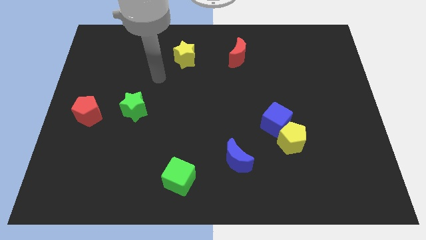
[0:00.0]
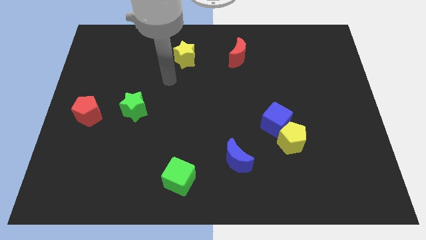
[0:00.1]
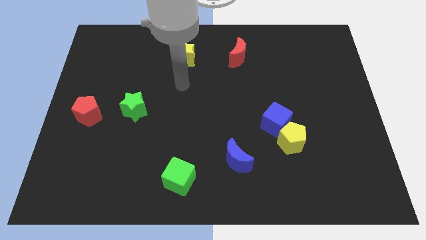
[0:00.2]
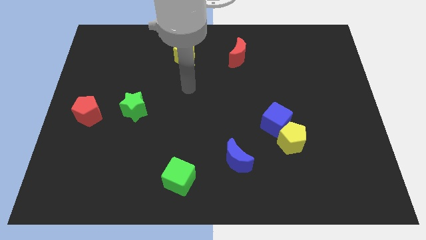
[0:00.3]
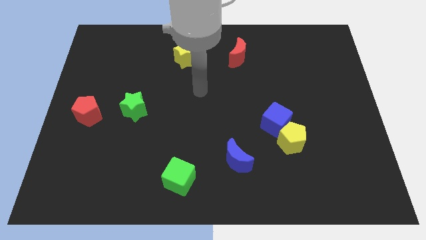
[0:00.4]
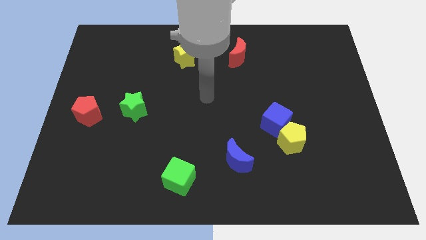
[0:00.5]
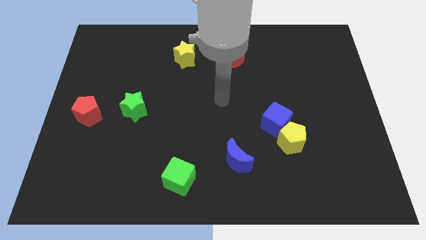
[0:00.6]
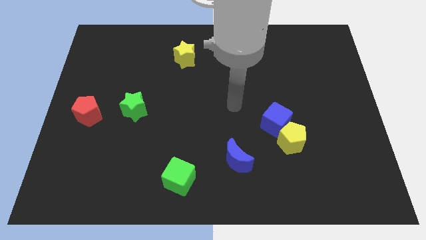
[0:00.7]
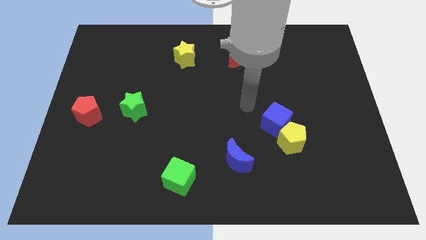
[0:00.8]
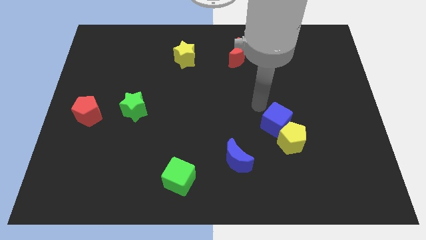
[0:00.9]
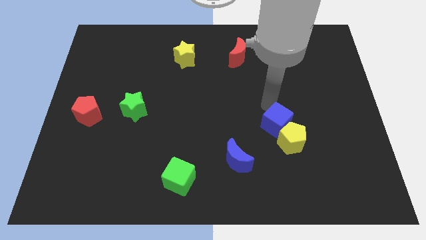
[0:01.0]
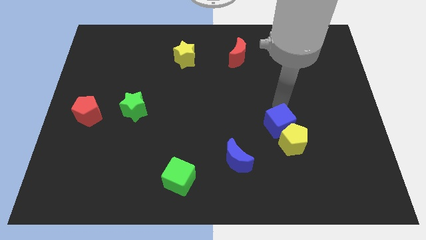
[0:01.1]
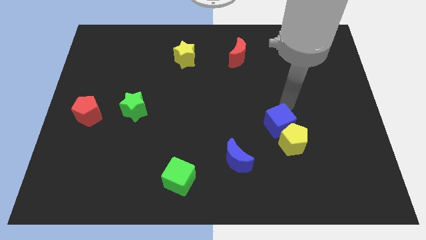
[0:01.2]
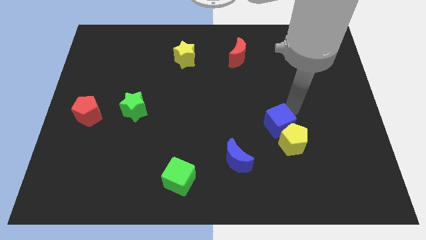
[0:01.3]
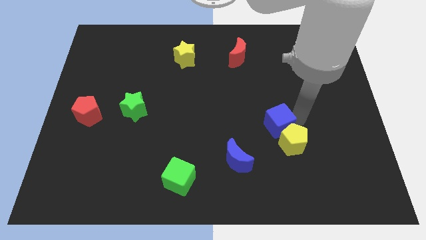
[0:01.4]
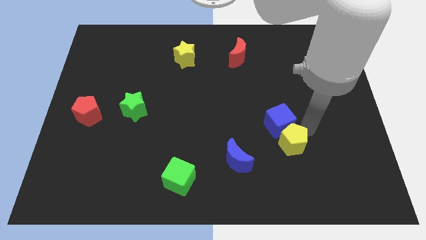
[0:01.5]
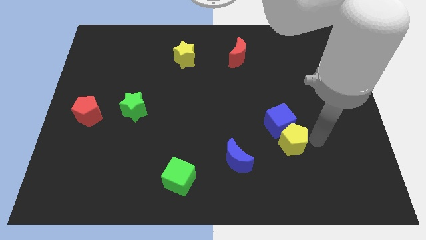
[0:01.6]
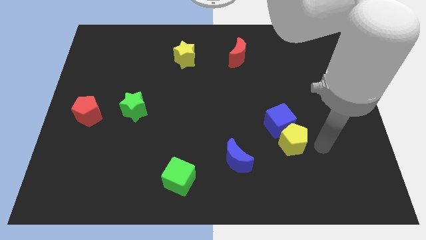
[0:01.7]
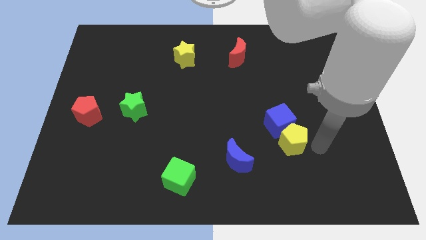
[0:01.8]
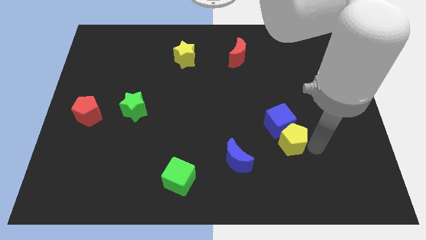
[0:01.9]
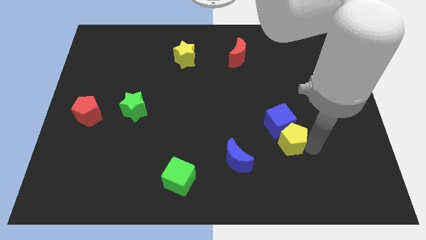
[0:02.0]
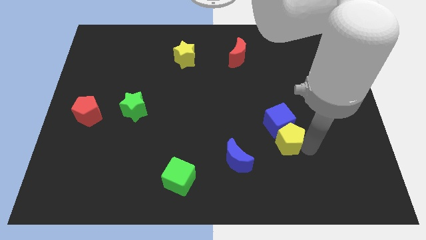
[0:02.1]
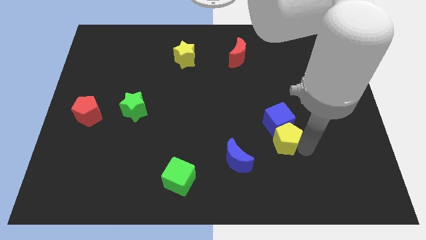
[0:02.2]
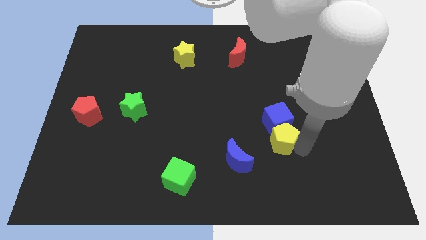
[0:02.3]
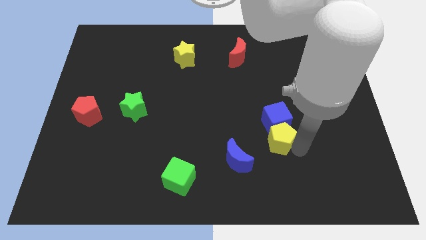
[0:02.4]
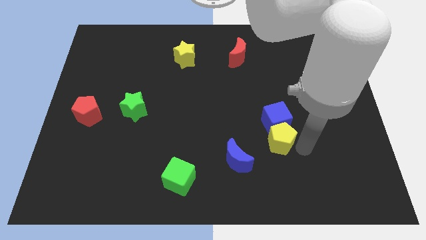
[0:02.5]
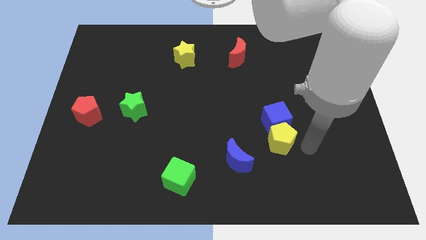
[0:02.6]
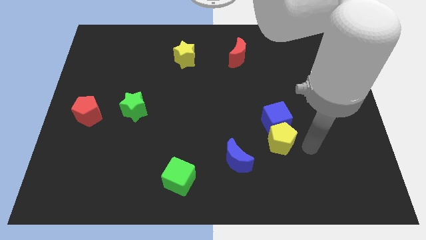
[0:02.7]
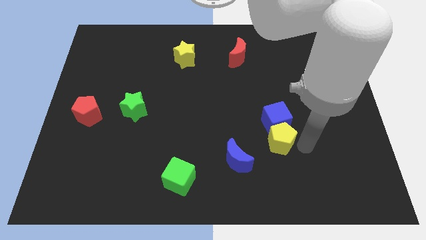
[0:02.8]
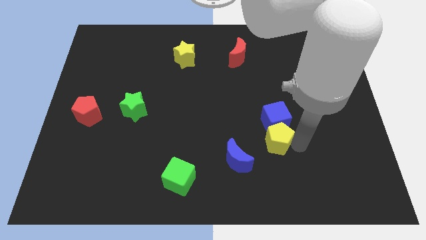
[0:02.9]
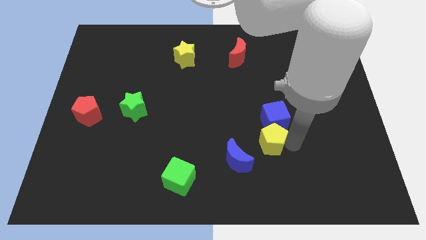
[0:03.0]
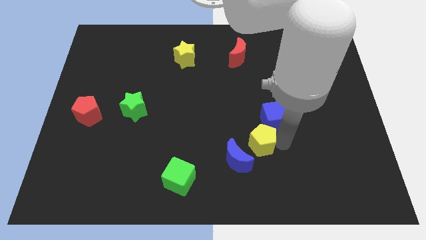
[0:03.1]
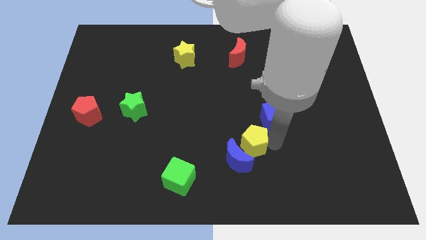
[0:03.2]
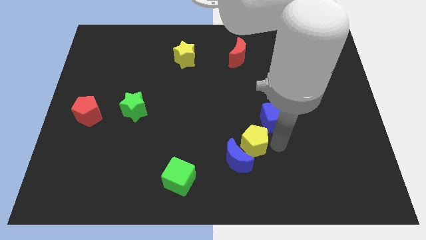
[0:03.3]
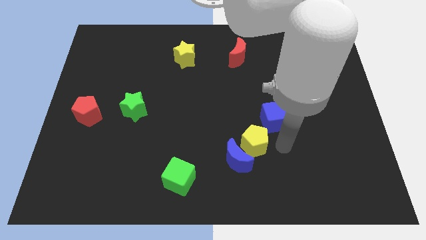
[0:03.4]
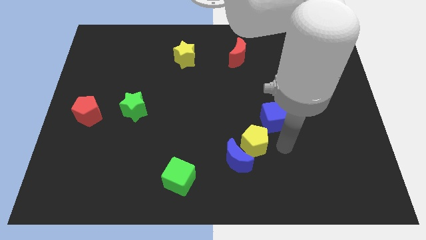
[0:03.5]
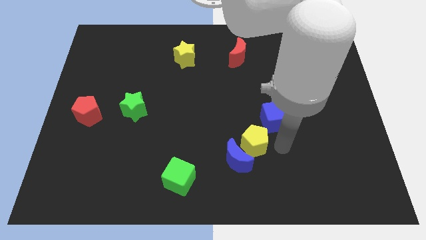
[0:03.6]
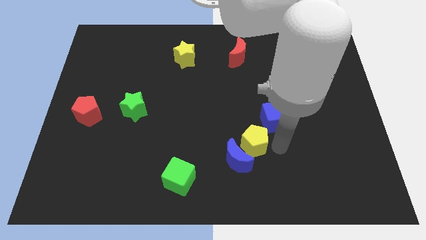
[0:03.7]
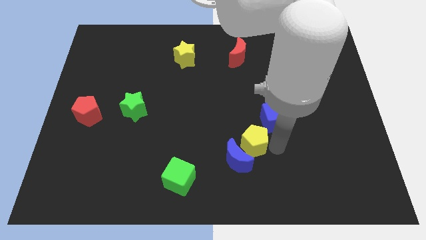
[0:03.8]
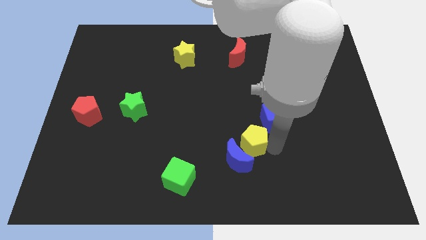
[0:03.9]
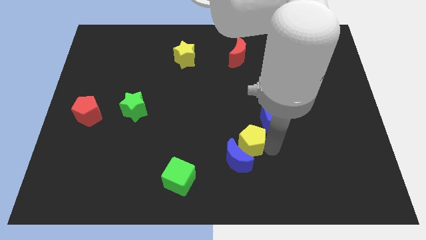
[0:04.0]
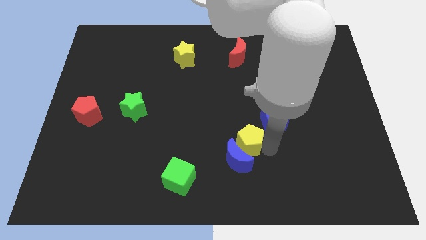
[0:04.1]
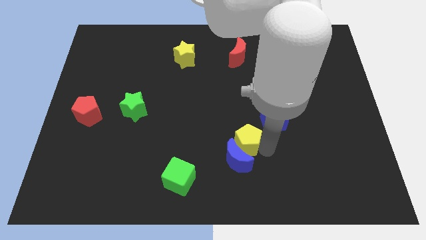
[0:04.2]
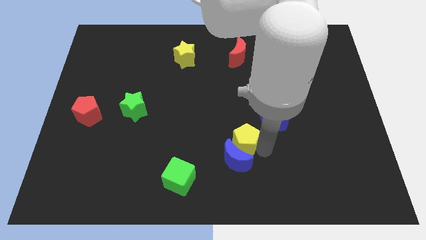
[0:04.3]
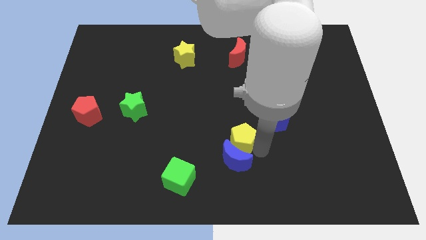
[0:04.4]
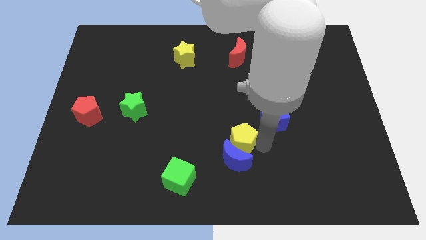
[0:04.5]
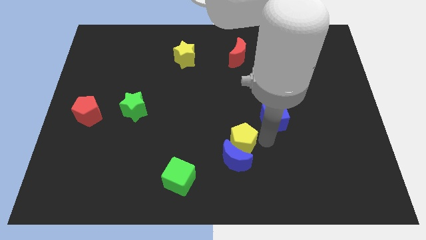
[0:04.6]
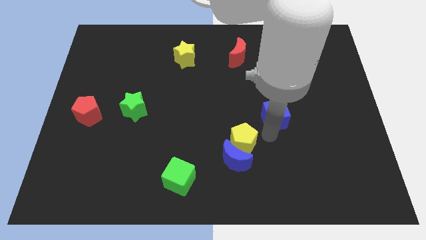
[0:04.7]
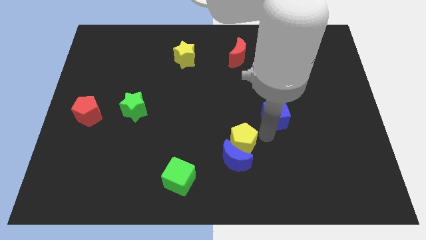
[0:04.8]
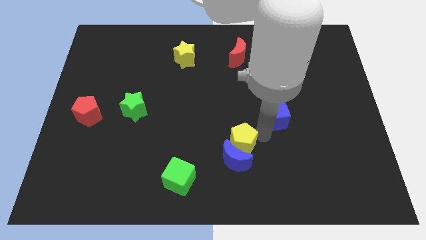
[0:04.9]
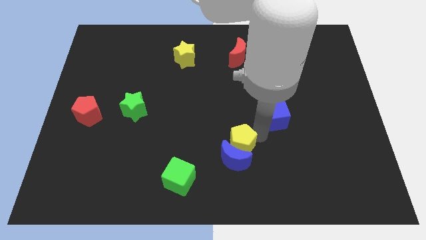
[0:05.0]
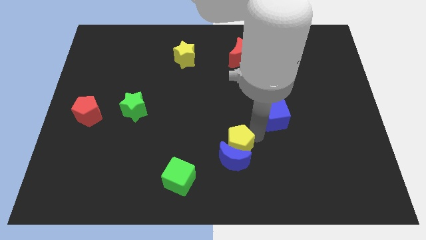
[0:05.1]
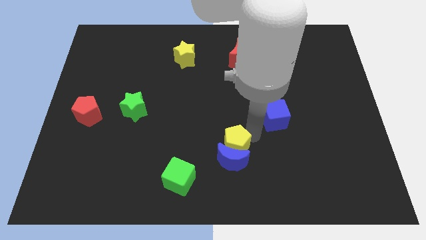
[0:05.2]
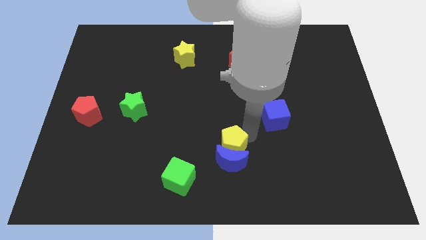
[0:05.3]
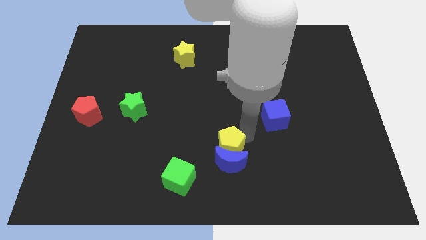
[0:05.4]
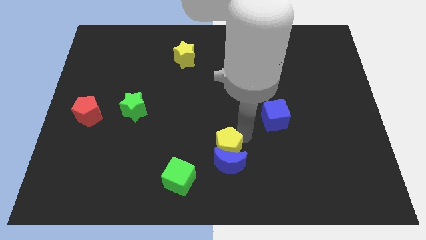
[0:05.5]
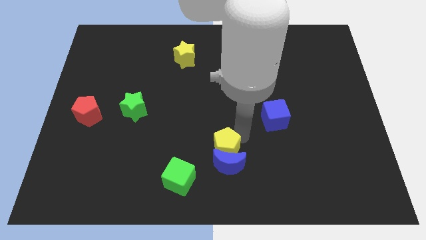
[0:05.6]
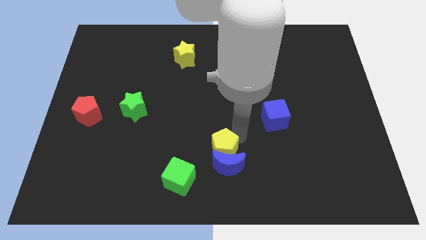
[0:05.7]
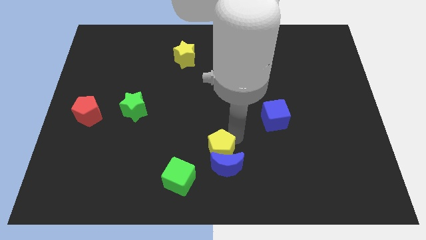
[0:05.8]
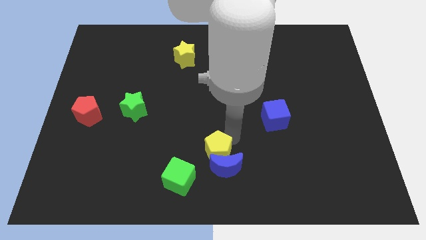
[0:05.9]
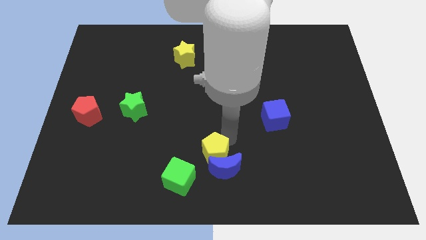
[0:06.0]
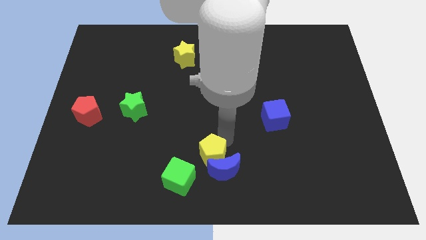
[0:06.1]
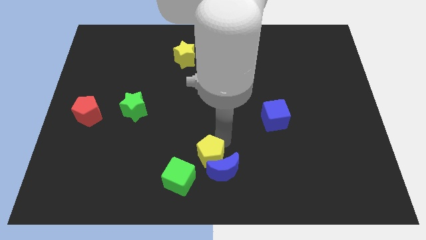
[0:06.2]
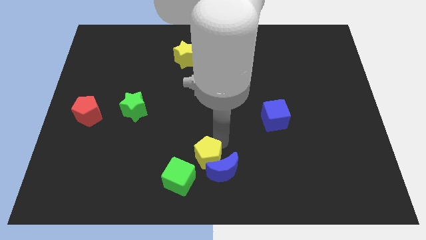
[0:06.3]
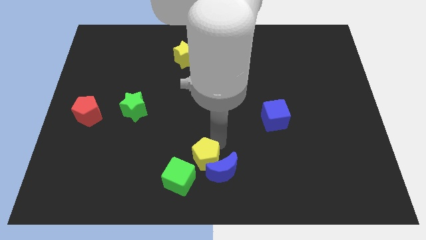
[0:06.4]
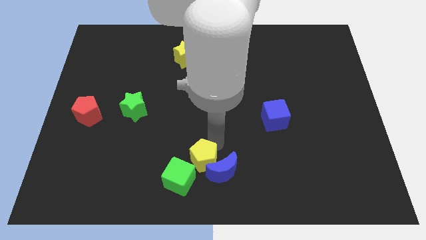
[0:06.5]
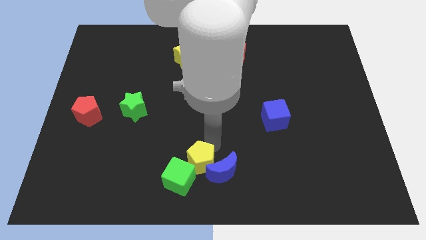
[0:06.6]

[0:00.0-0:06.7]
slide the yellow pentagon close to the green cube
